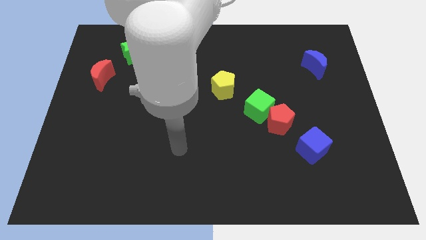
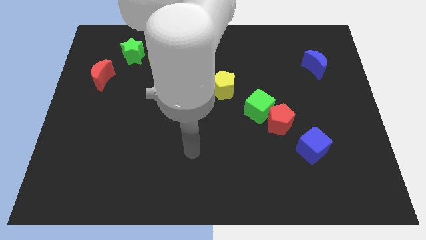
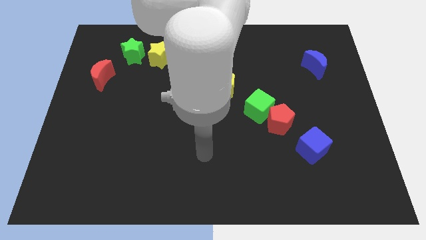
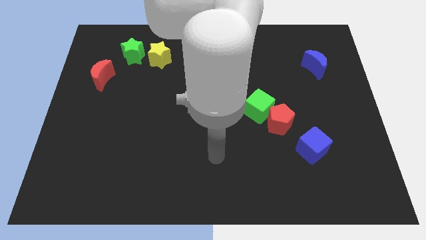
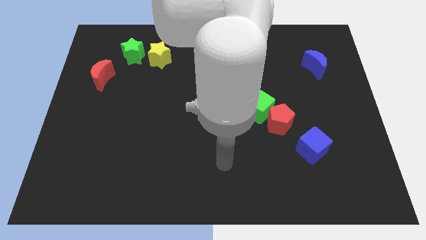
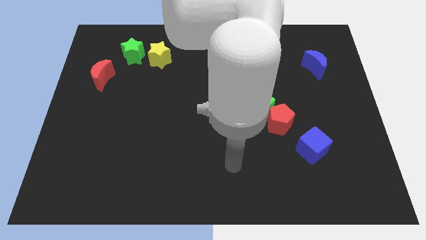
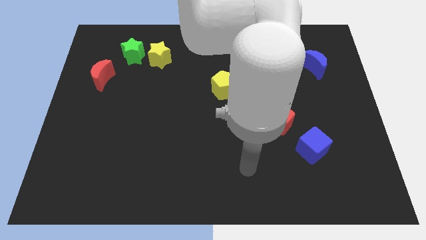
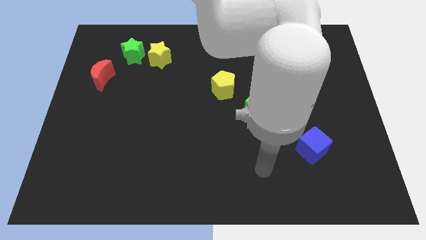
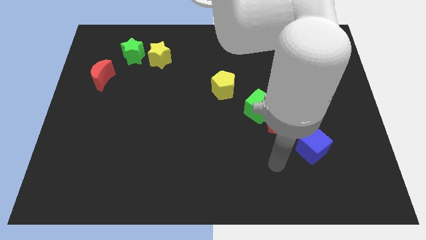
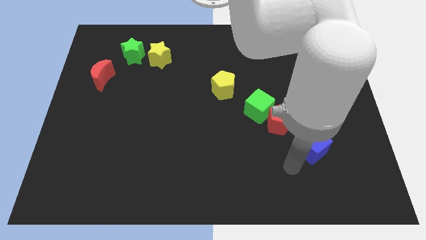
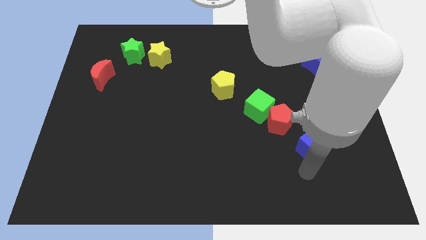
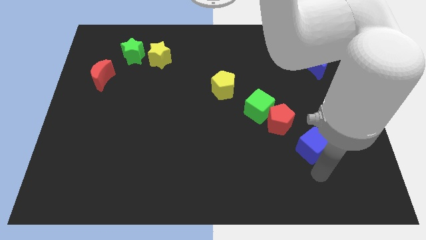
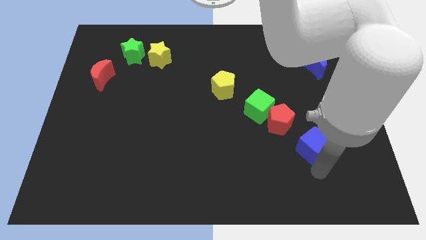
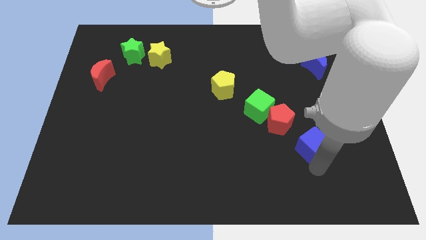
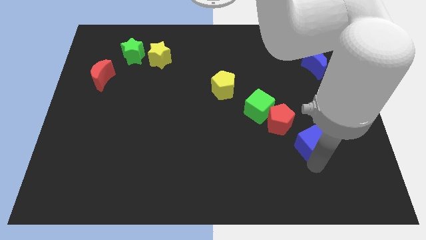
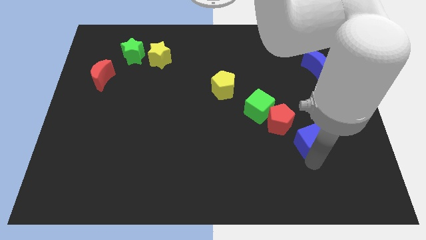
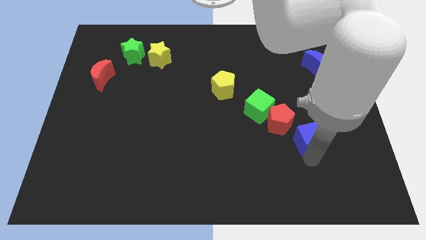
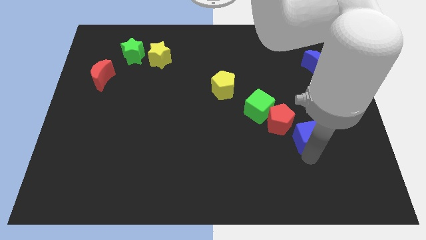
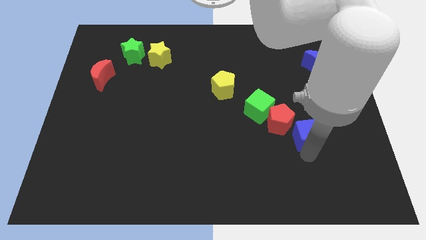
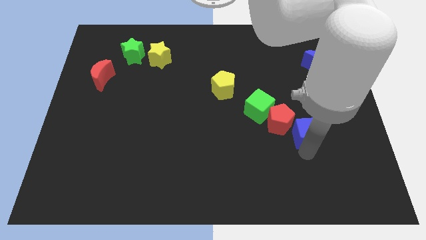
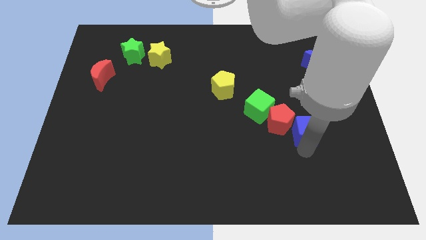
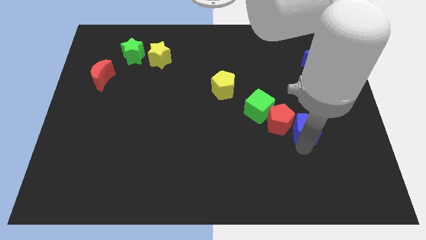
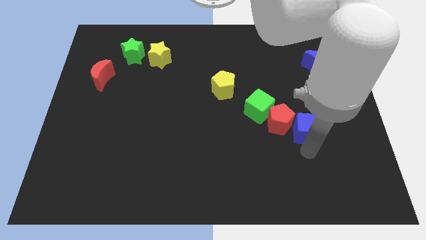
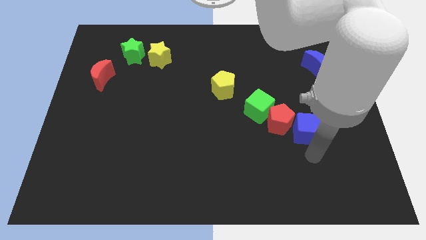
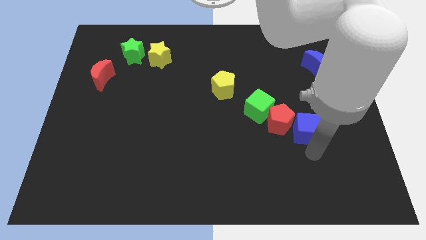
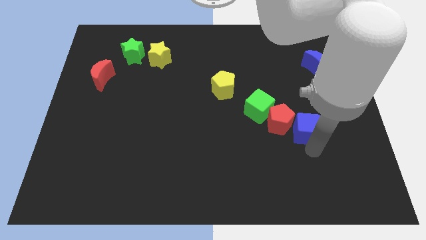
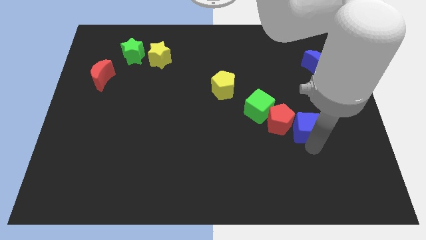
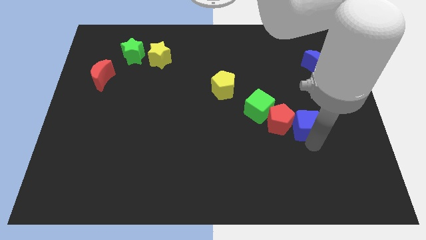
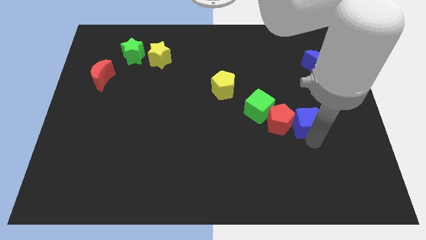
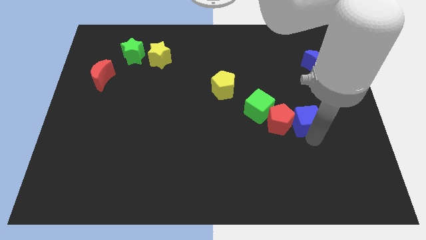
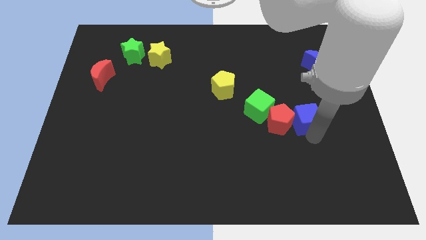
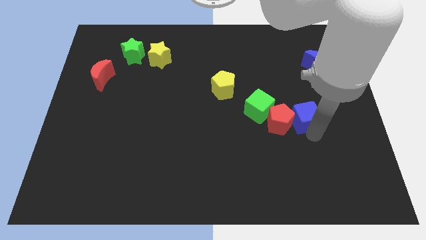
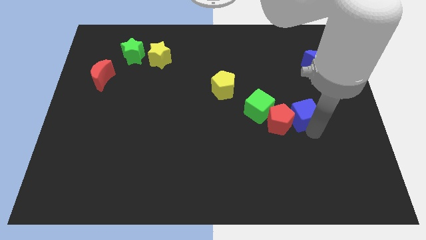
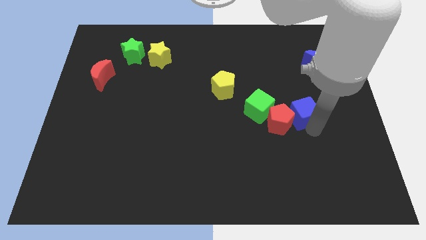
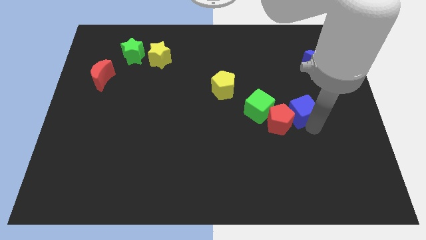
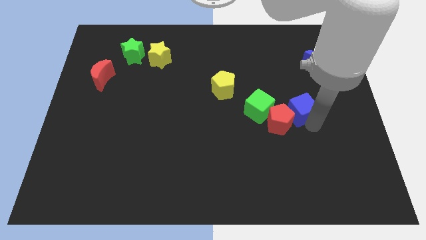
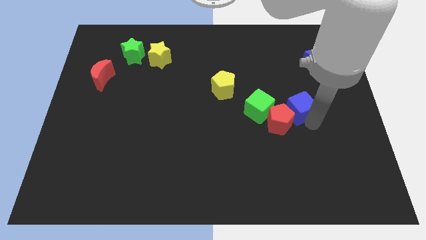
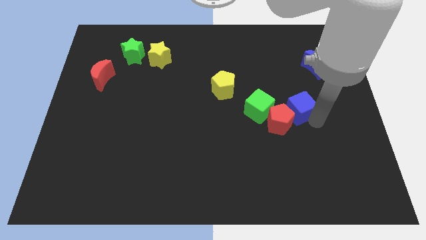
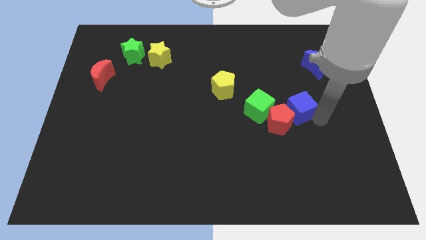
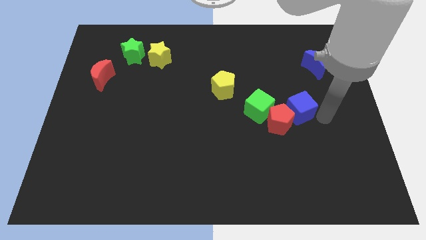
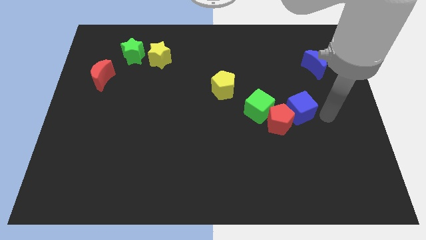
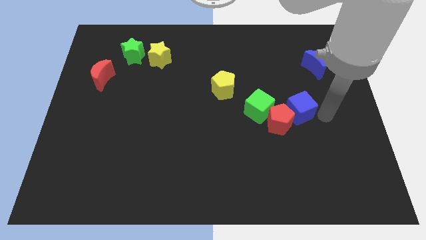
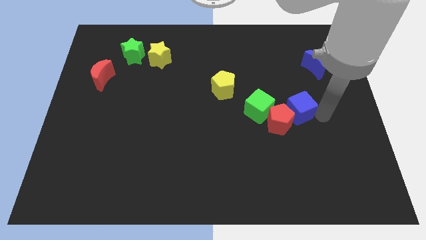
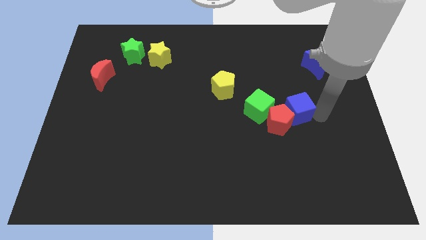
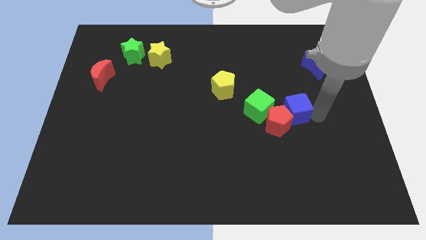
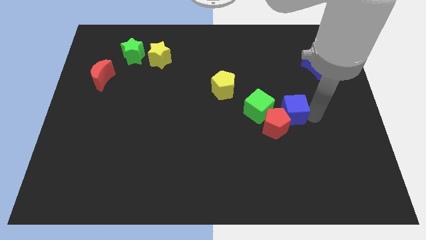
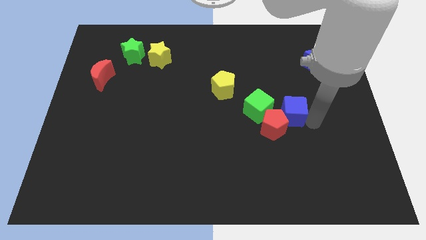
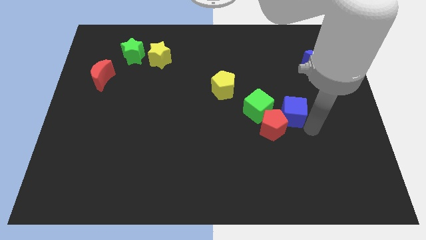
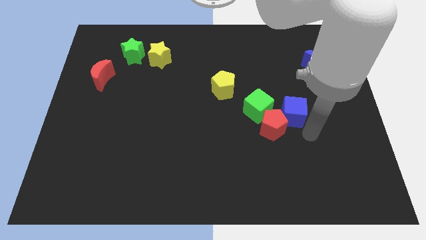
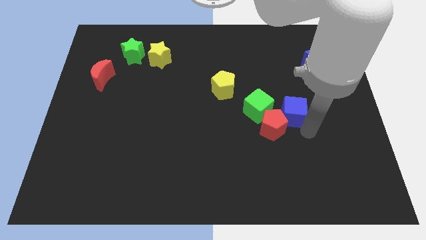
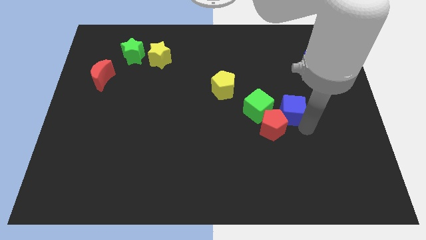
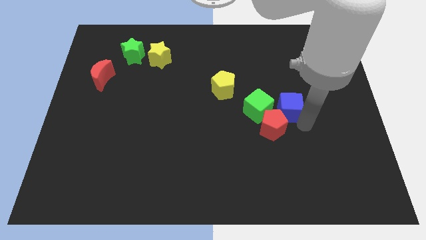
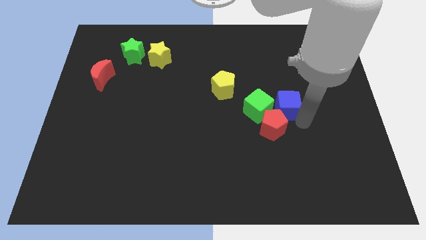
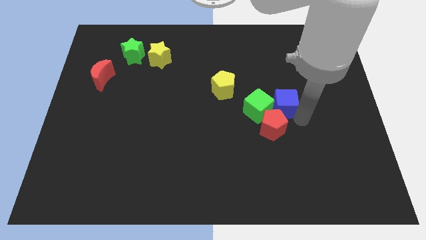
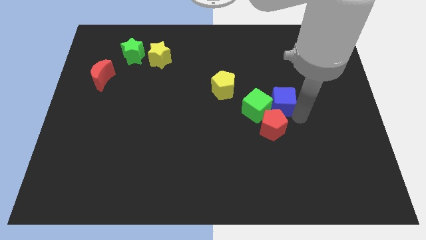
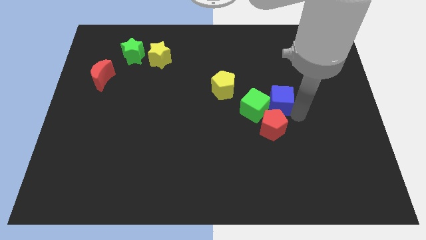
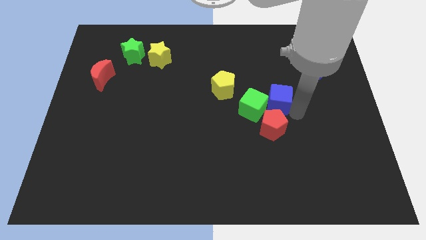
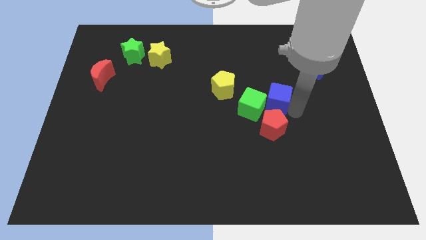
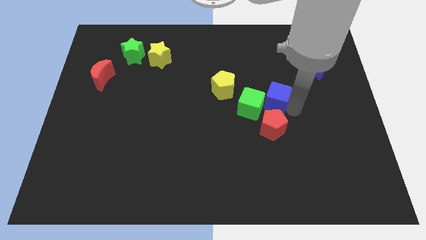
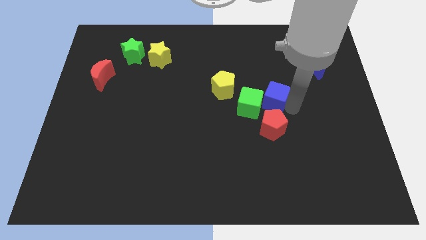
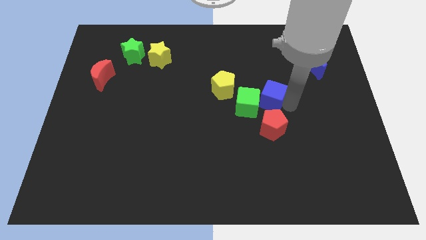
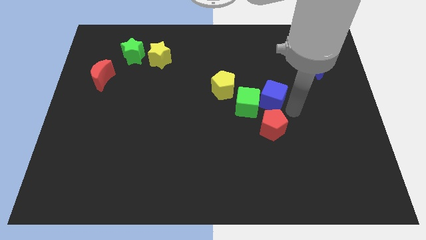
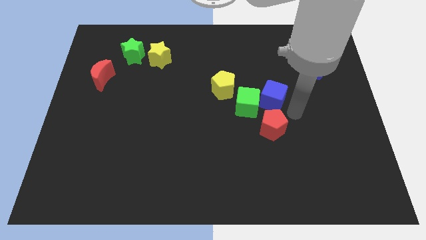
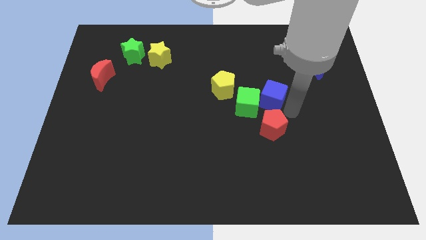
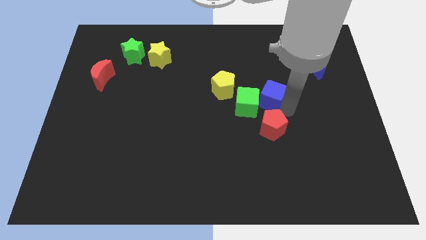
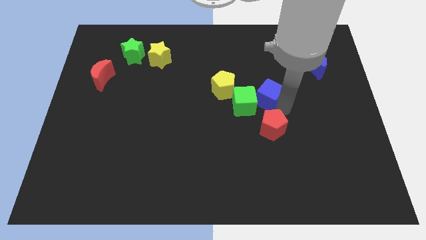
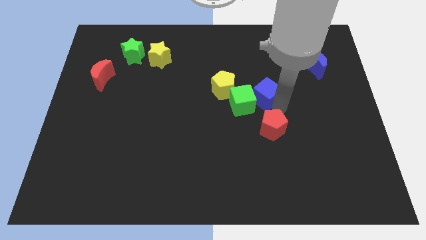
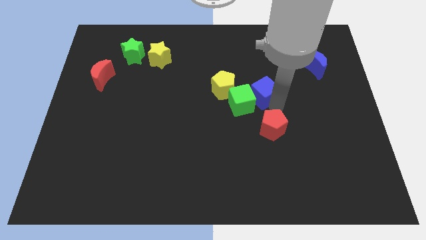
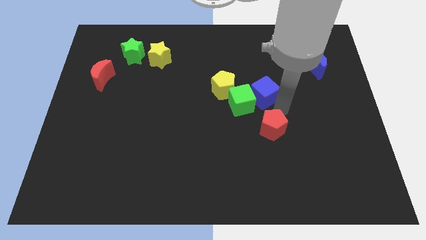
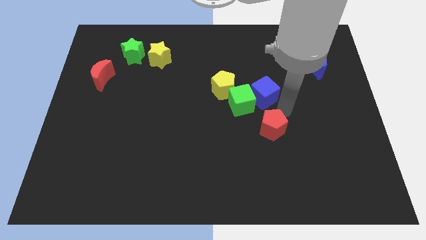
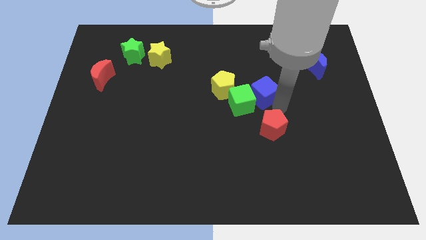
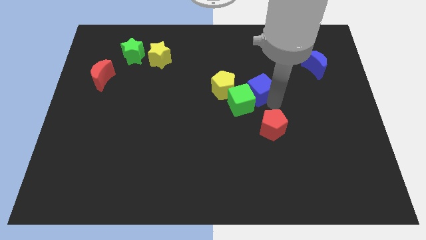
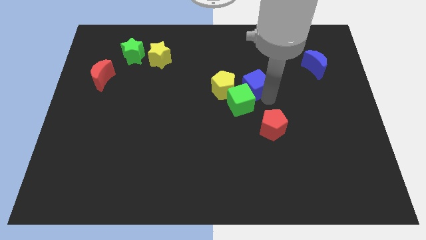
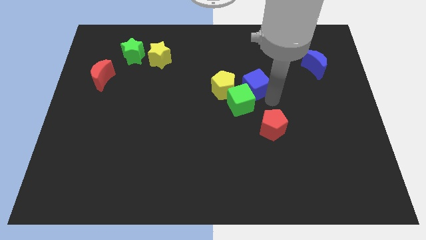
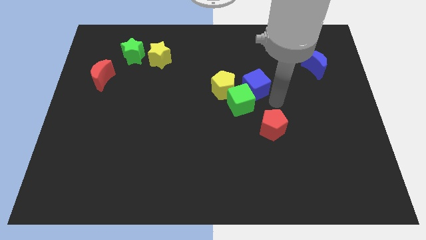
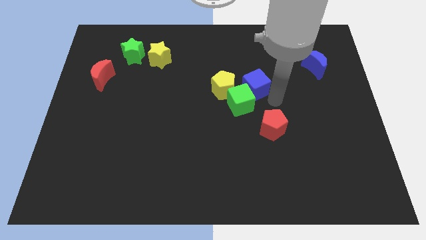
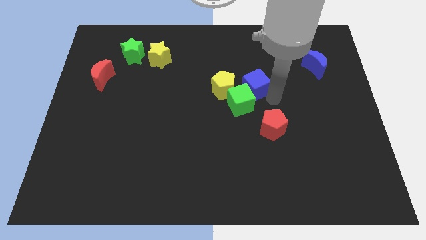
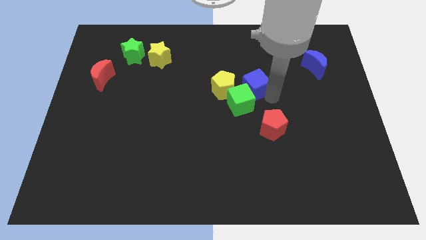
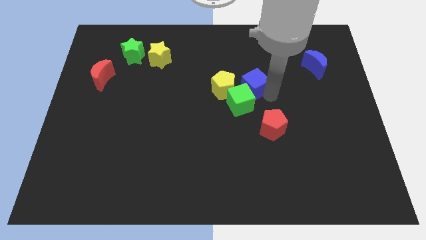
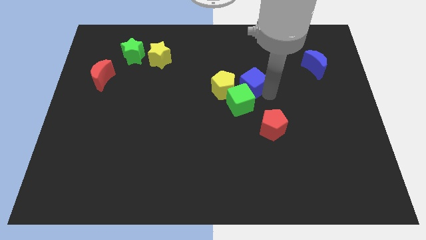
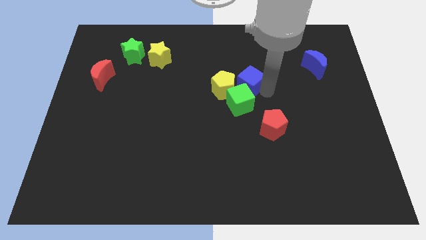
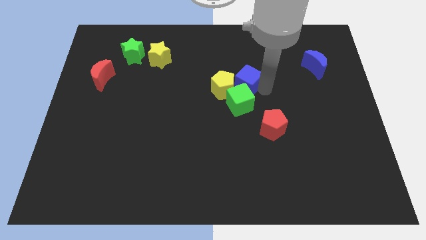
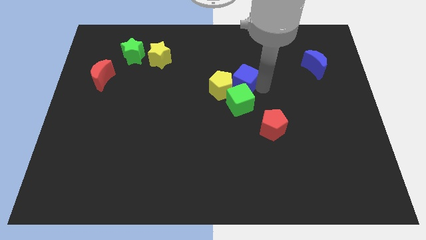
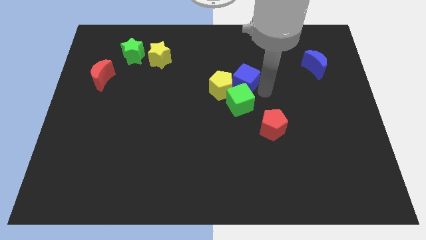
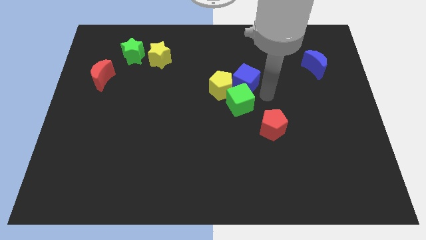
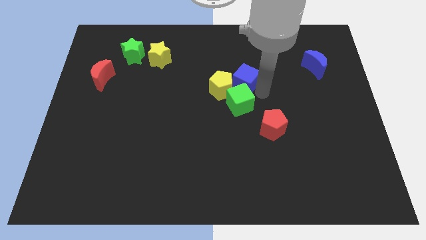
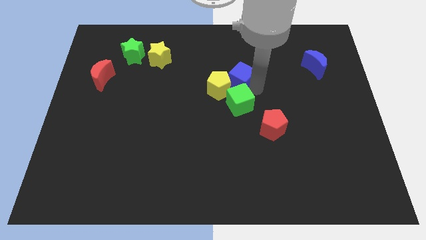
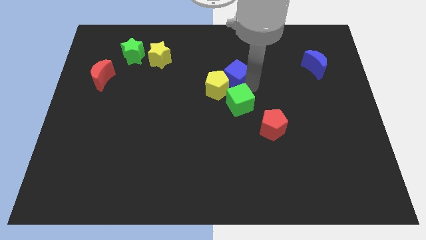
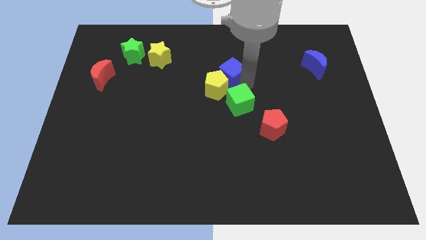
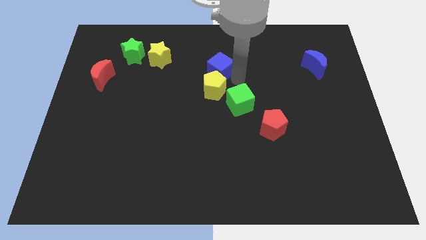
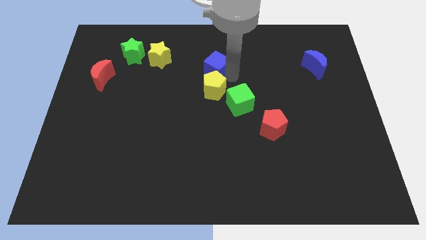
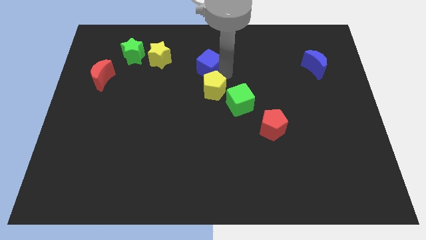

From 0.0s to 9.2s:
put the blue cube to the right of the yellow star
